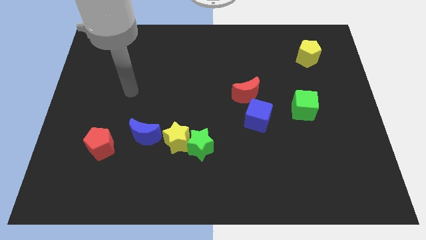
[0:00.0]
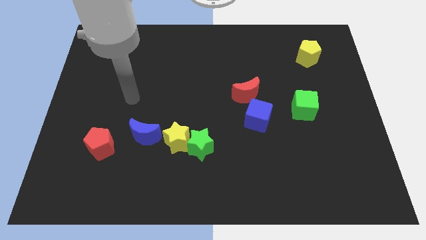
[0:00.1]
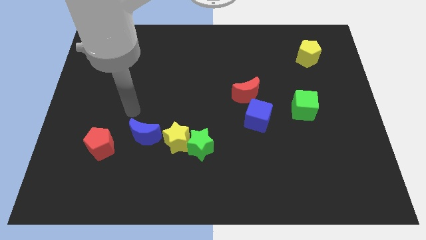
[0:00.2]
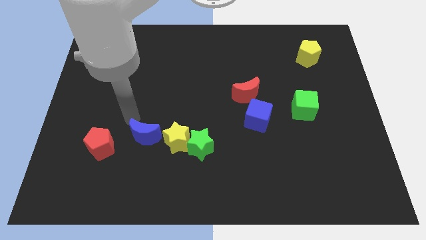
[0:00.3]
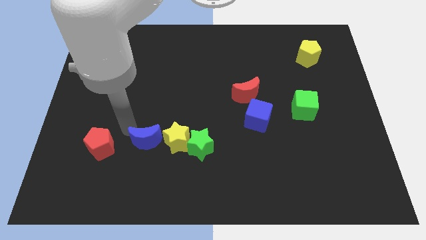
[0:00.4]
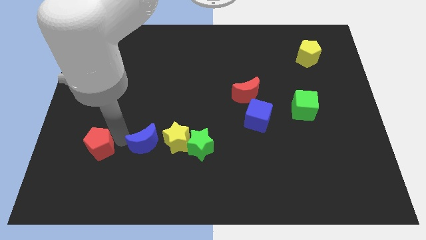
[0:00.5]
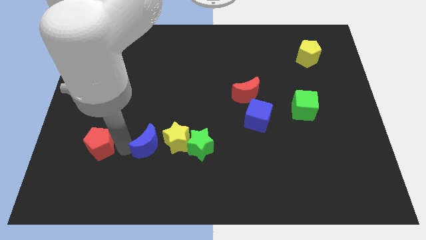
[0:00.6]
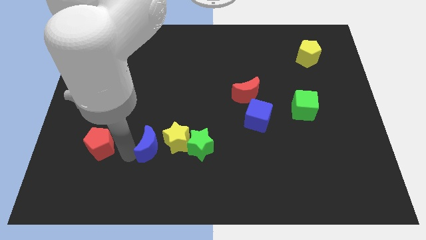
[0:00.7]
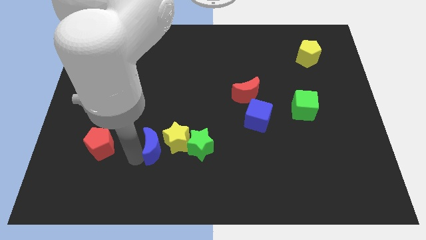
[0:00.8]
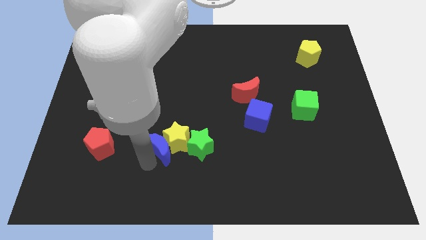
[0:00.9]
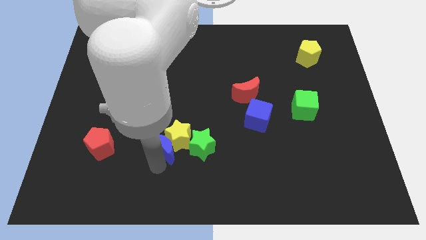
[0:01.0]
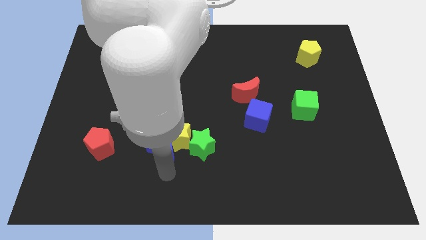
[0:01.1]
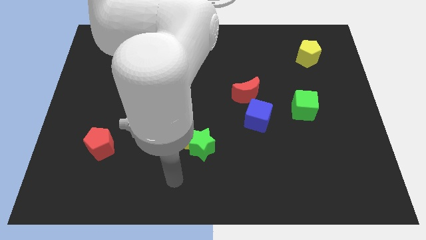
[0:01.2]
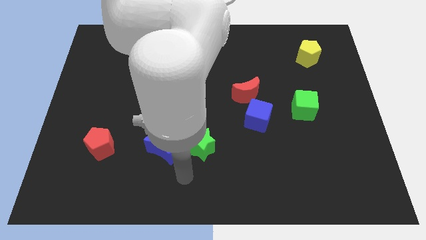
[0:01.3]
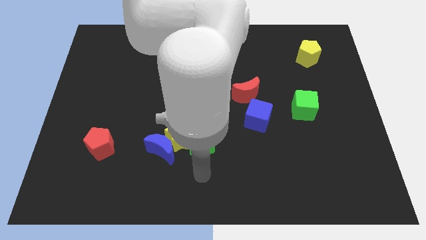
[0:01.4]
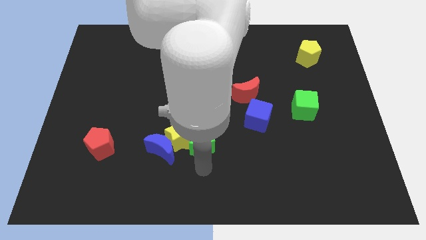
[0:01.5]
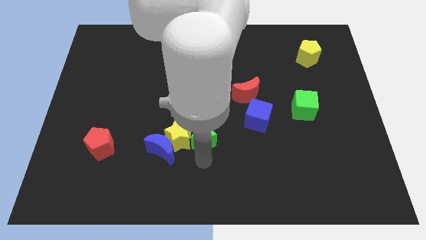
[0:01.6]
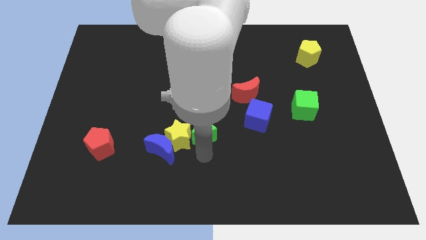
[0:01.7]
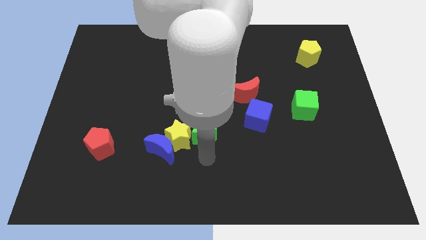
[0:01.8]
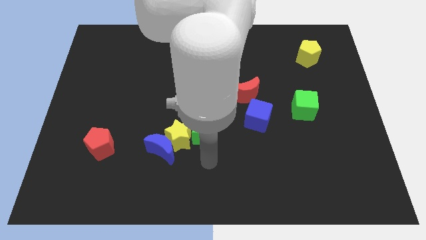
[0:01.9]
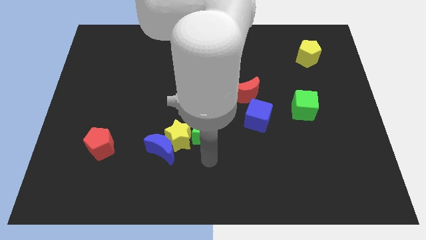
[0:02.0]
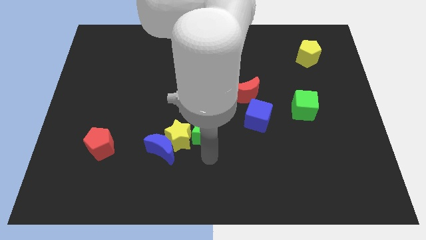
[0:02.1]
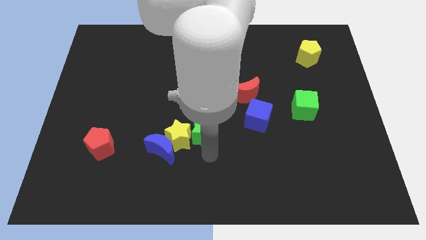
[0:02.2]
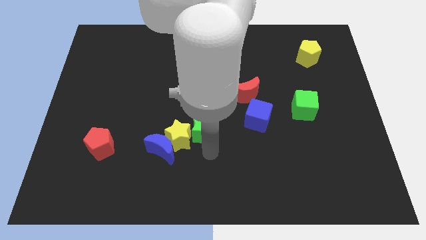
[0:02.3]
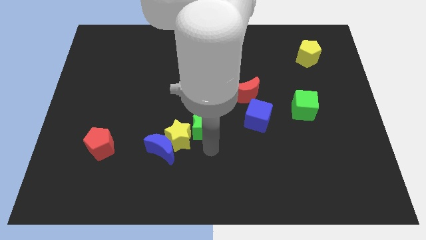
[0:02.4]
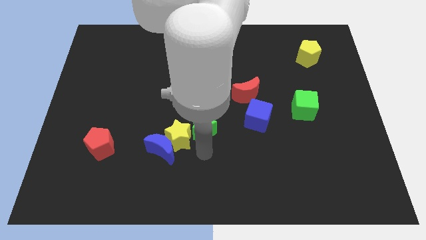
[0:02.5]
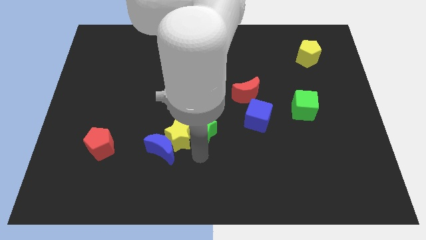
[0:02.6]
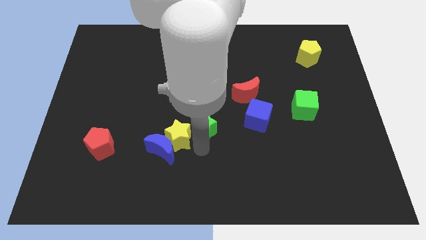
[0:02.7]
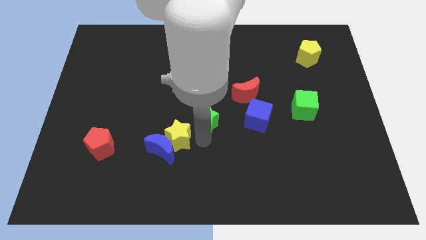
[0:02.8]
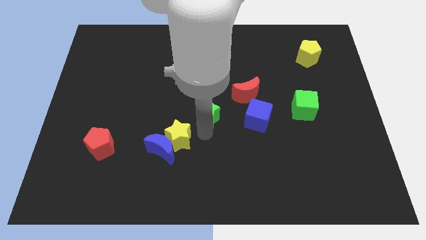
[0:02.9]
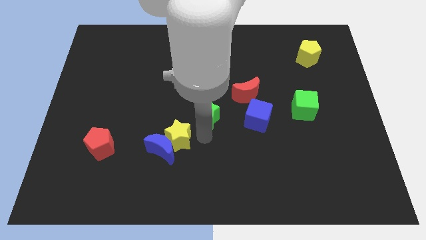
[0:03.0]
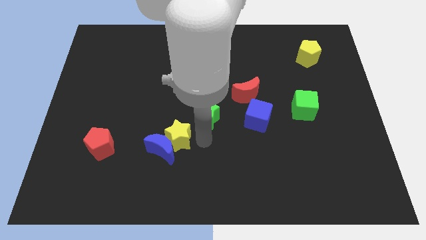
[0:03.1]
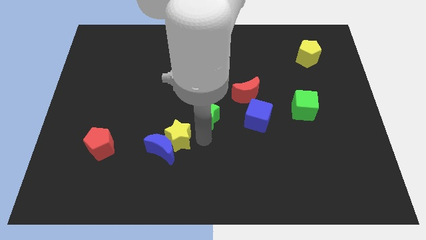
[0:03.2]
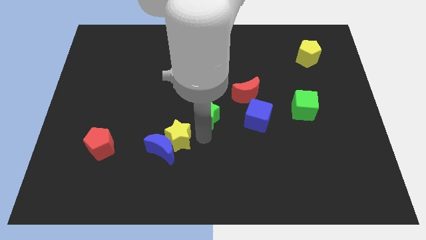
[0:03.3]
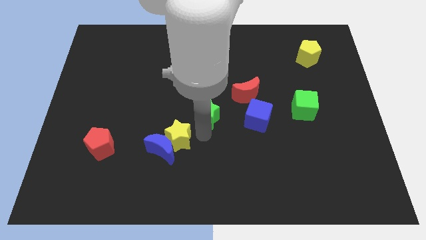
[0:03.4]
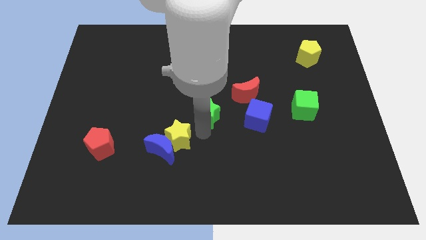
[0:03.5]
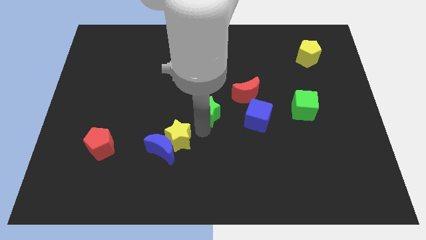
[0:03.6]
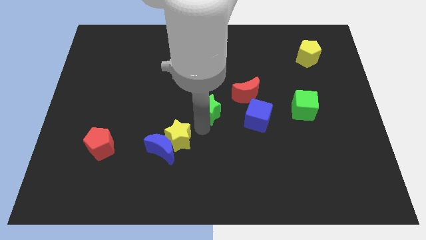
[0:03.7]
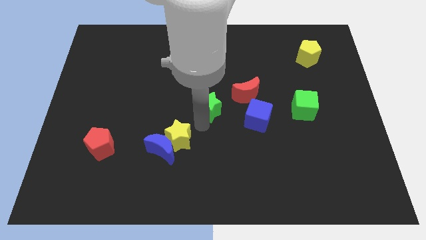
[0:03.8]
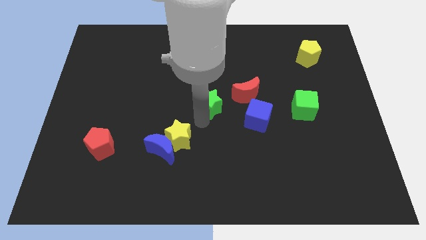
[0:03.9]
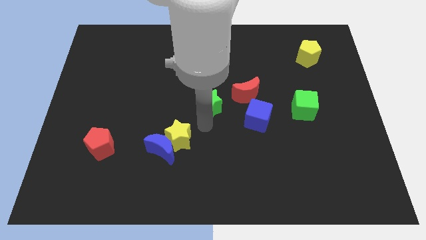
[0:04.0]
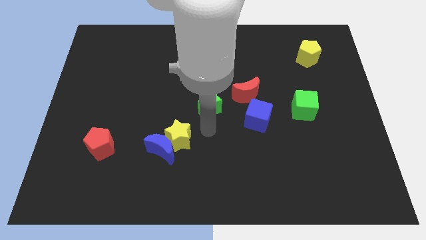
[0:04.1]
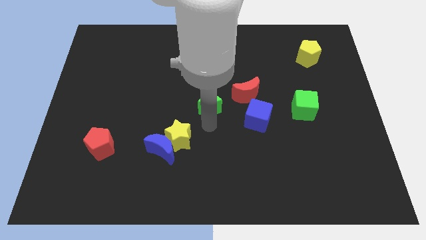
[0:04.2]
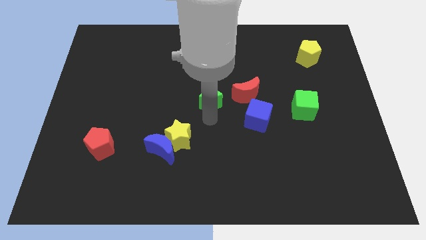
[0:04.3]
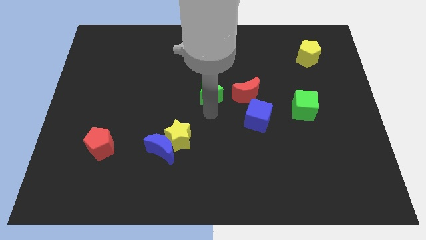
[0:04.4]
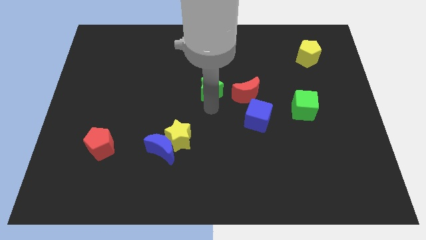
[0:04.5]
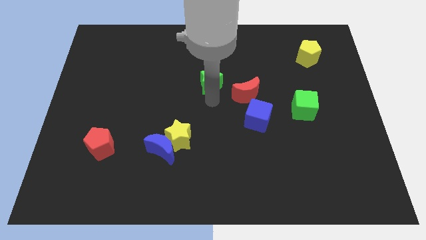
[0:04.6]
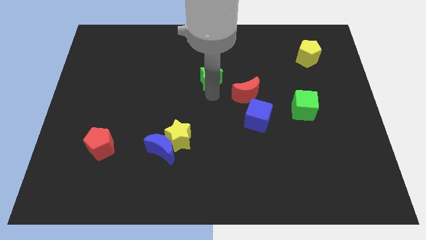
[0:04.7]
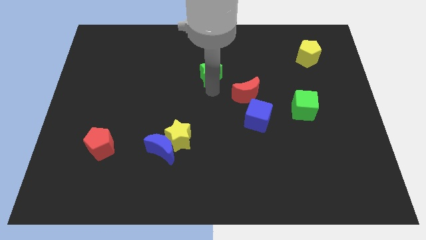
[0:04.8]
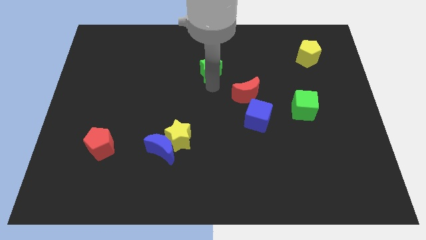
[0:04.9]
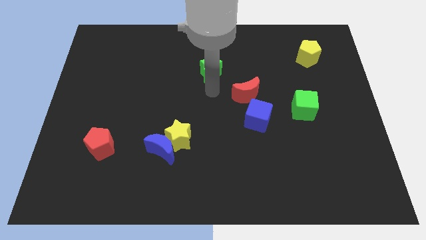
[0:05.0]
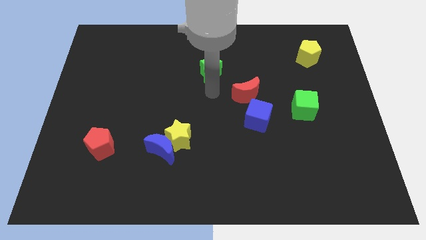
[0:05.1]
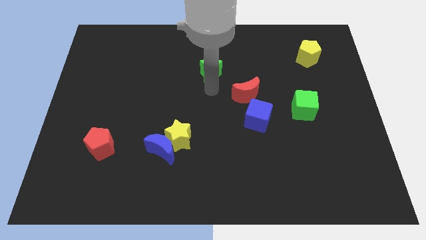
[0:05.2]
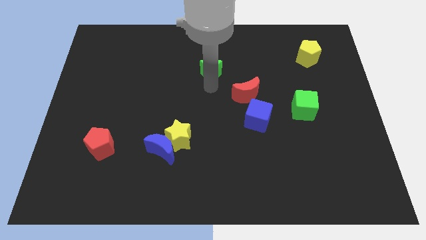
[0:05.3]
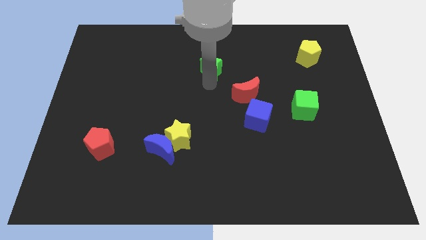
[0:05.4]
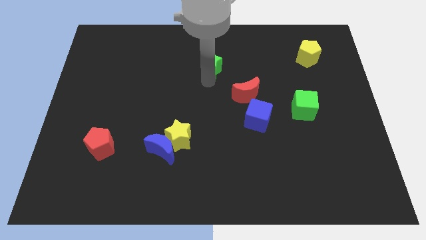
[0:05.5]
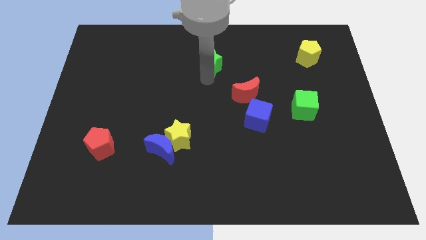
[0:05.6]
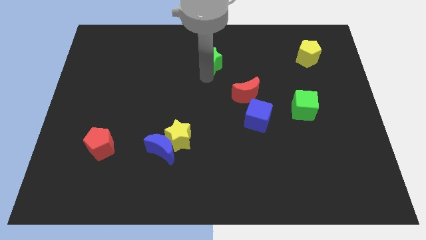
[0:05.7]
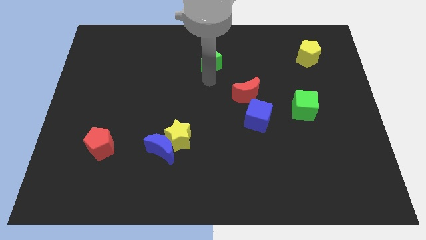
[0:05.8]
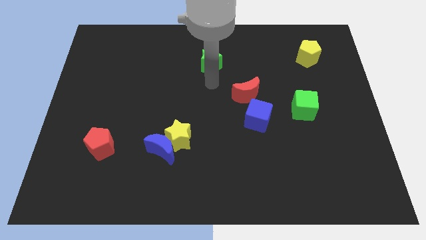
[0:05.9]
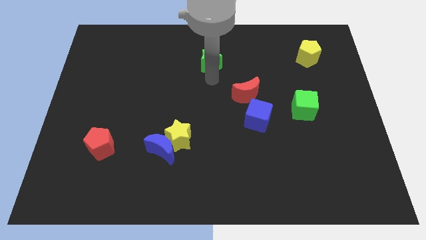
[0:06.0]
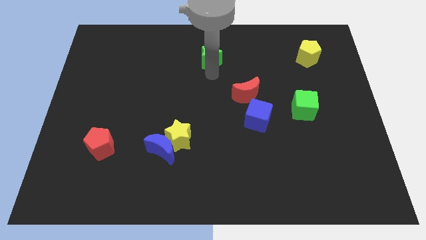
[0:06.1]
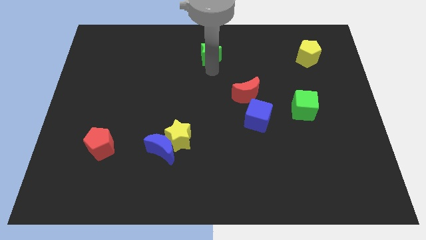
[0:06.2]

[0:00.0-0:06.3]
put the green star to the towards your base
